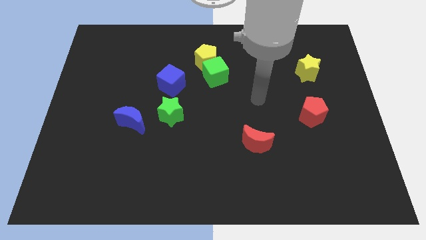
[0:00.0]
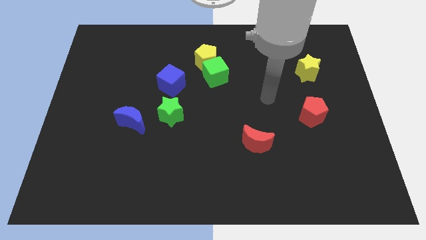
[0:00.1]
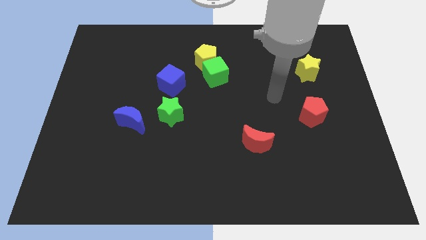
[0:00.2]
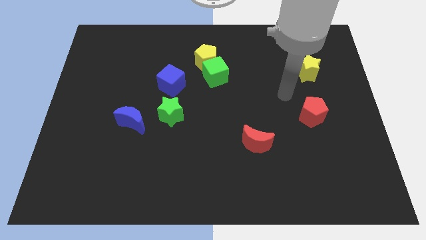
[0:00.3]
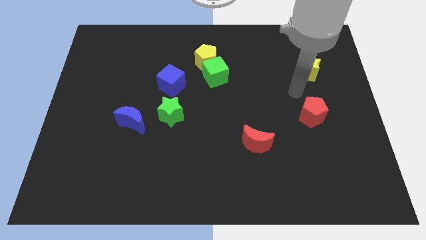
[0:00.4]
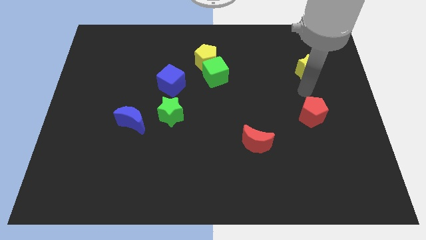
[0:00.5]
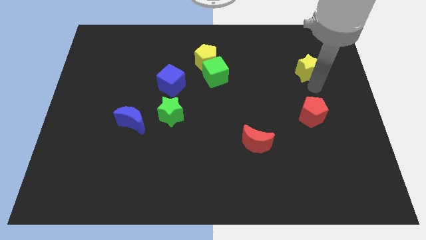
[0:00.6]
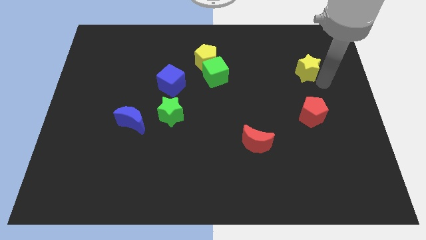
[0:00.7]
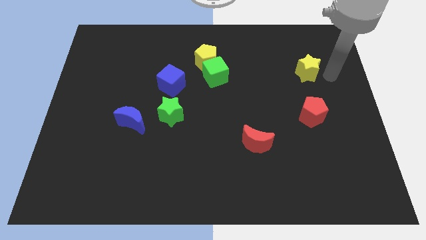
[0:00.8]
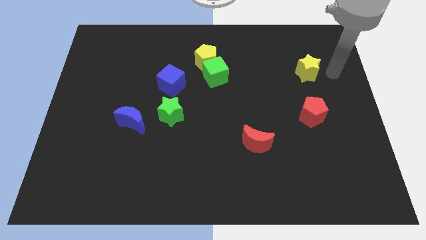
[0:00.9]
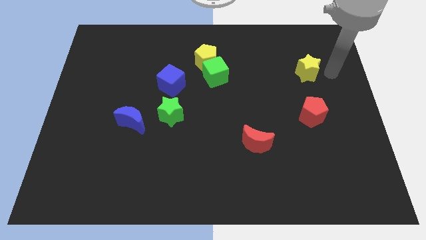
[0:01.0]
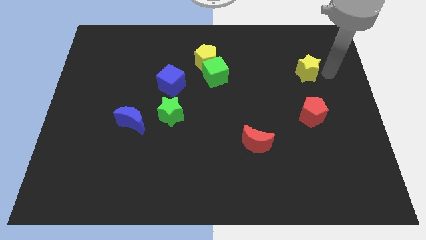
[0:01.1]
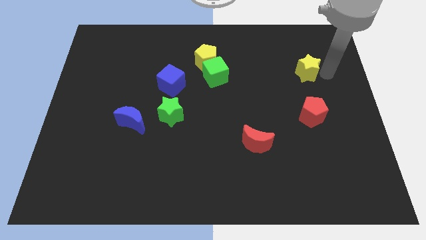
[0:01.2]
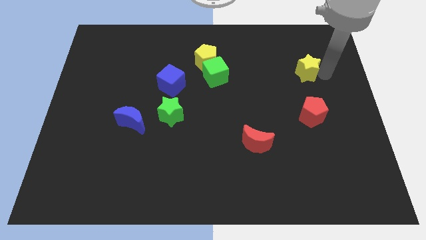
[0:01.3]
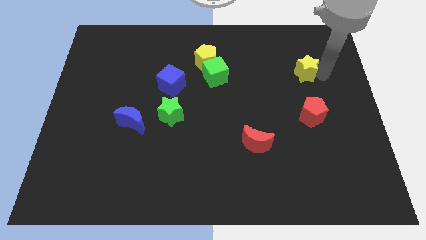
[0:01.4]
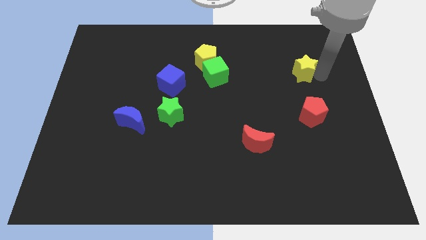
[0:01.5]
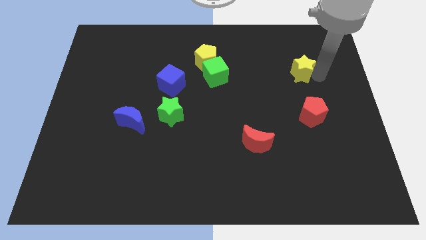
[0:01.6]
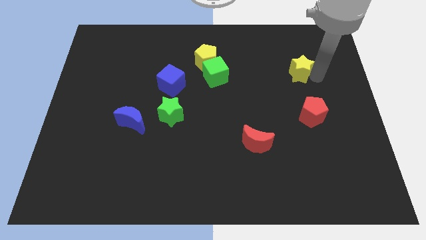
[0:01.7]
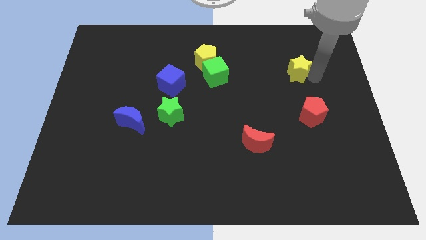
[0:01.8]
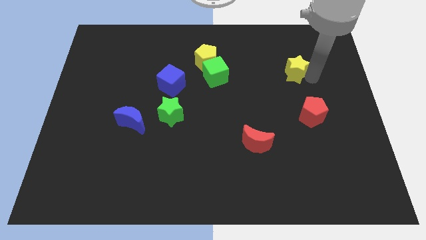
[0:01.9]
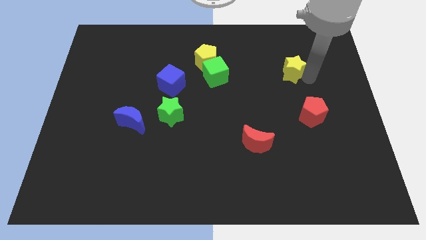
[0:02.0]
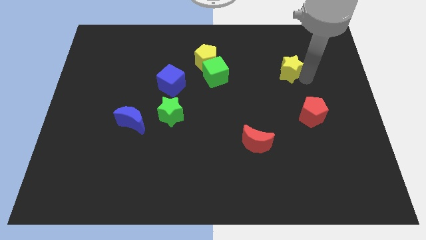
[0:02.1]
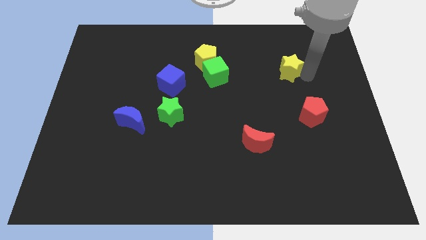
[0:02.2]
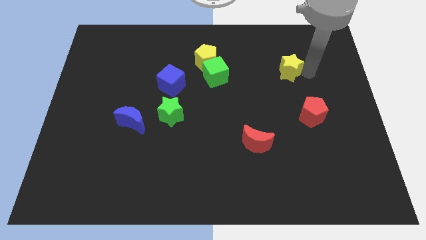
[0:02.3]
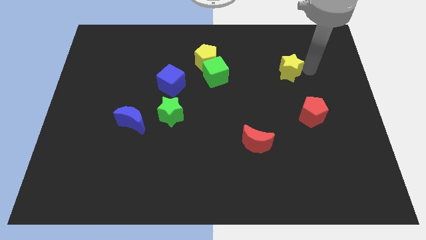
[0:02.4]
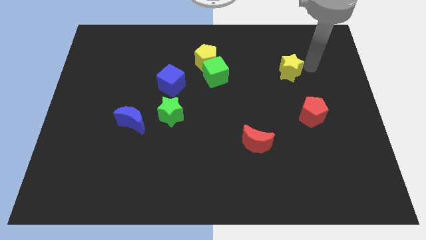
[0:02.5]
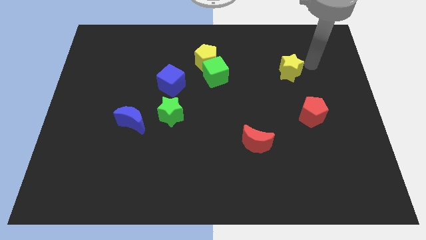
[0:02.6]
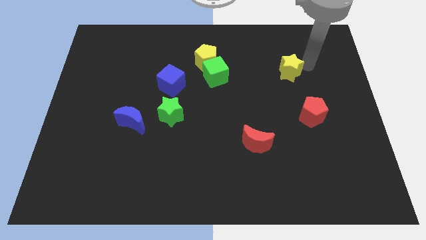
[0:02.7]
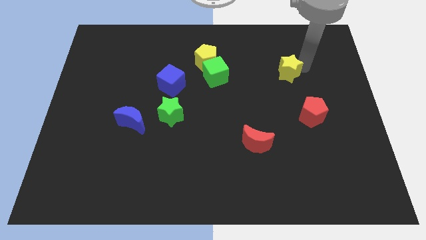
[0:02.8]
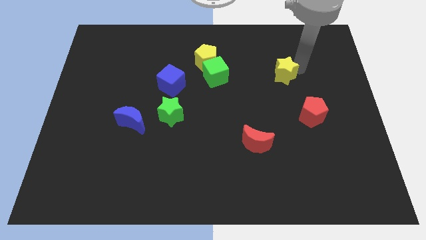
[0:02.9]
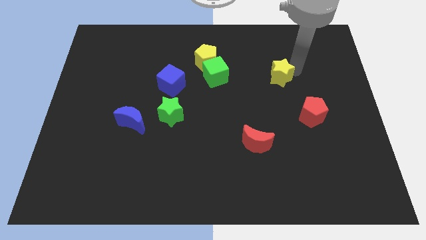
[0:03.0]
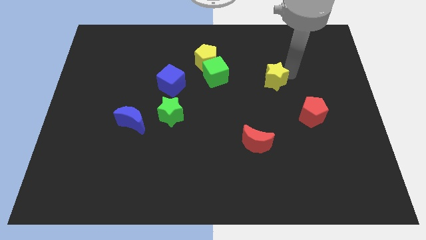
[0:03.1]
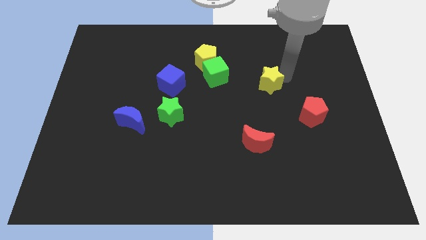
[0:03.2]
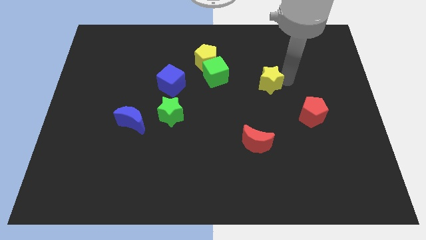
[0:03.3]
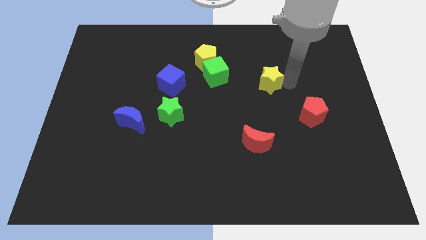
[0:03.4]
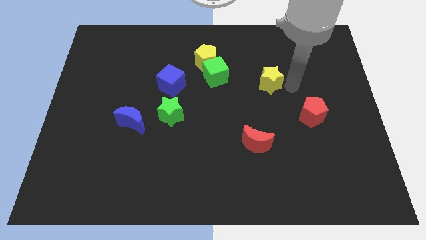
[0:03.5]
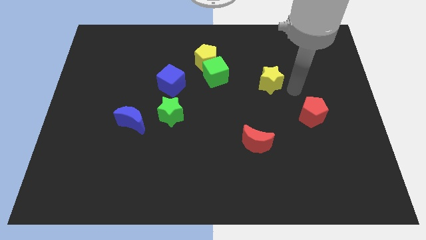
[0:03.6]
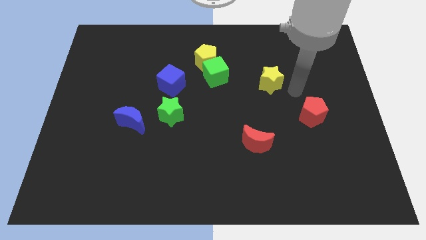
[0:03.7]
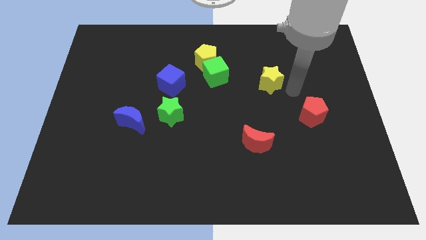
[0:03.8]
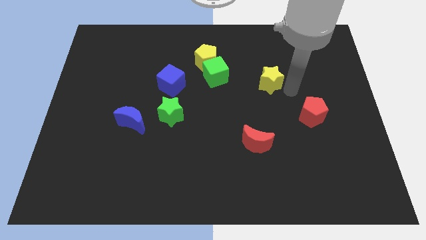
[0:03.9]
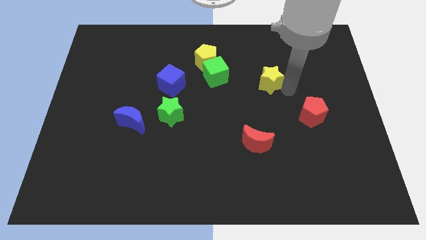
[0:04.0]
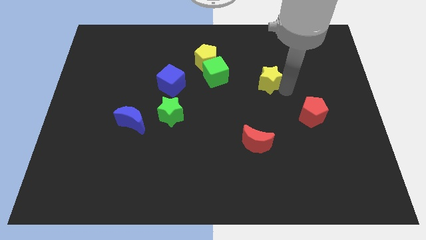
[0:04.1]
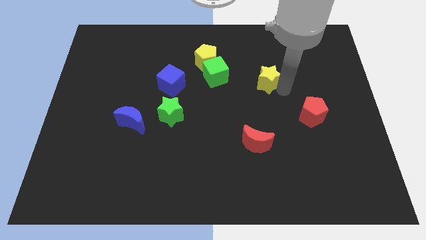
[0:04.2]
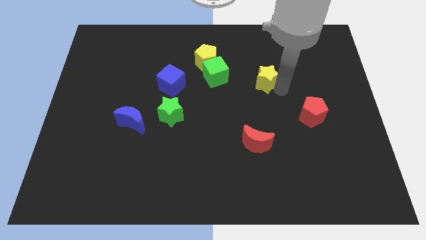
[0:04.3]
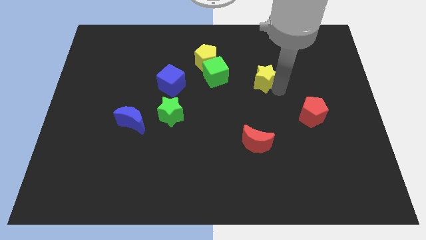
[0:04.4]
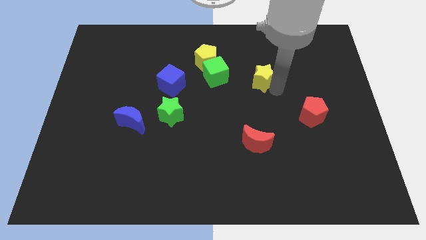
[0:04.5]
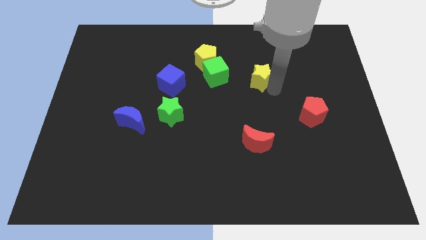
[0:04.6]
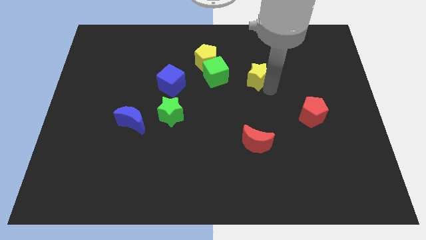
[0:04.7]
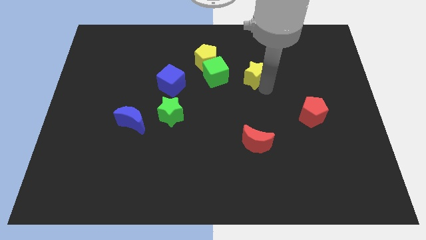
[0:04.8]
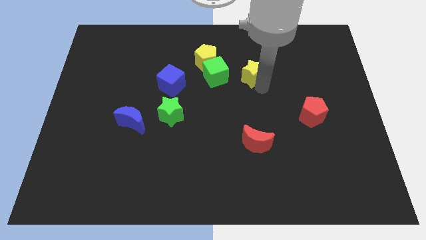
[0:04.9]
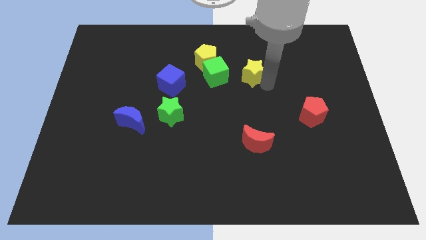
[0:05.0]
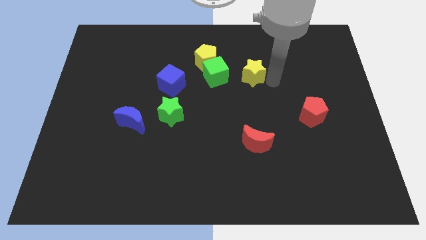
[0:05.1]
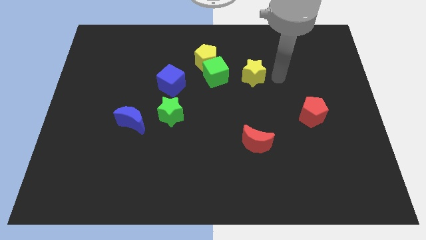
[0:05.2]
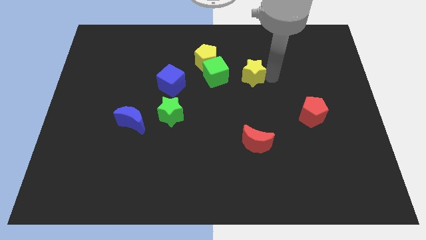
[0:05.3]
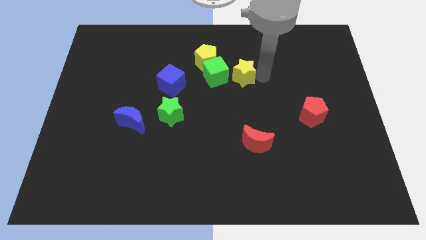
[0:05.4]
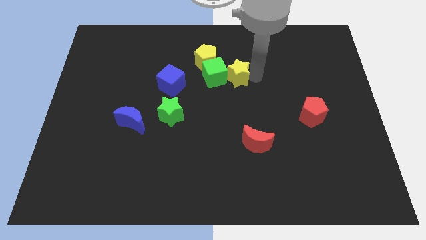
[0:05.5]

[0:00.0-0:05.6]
move the yellow star next to the green cube

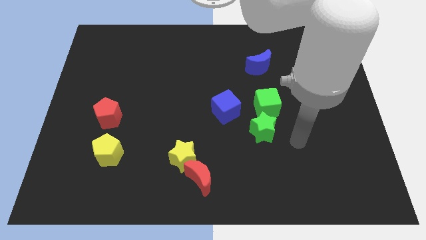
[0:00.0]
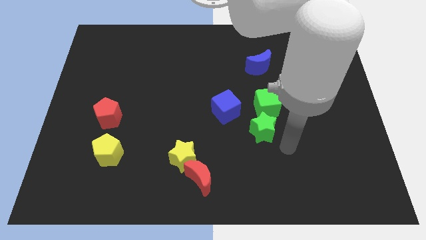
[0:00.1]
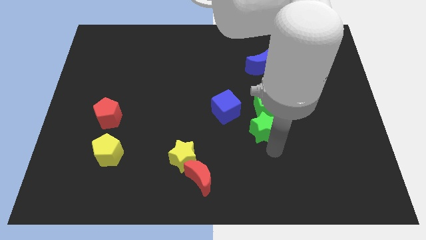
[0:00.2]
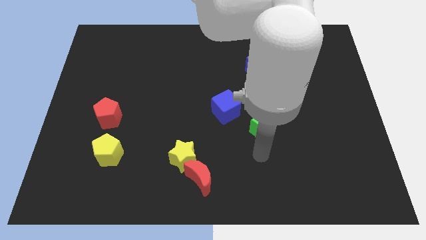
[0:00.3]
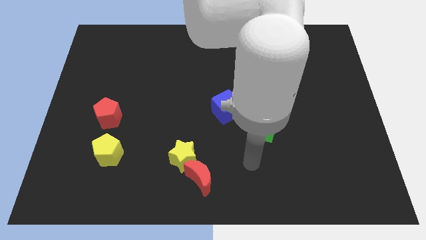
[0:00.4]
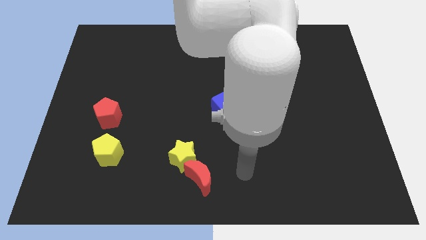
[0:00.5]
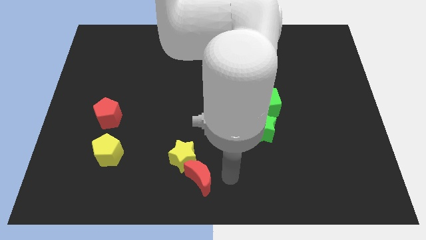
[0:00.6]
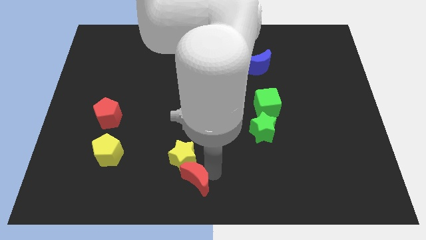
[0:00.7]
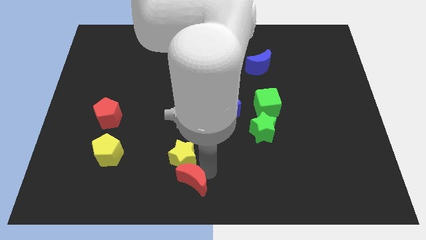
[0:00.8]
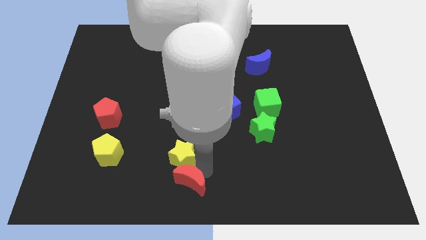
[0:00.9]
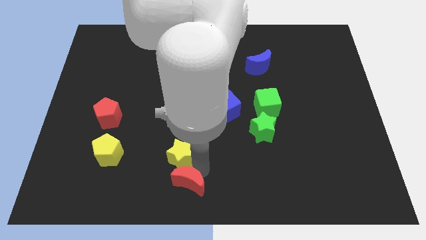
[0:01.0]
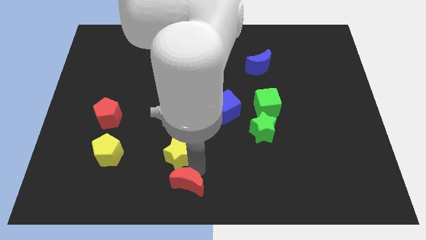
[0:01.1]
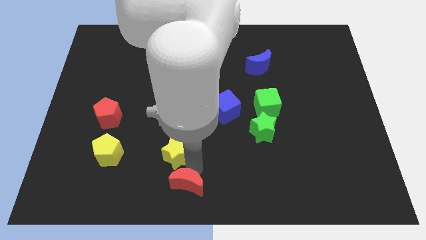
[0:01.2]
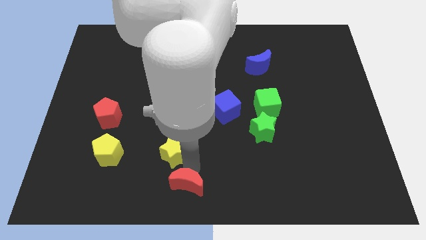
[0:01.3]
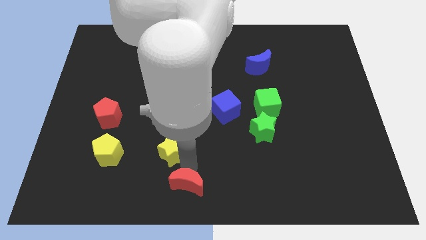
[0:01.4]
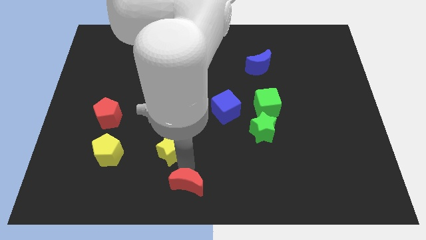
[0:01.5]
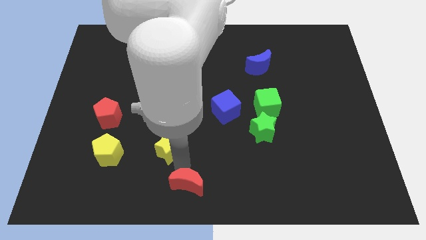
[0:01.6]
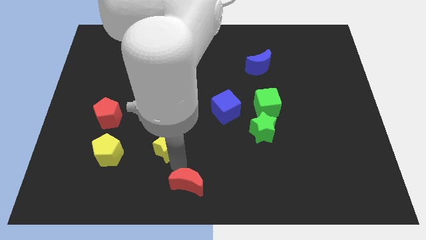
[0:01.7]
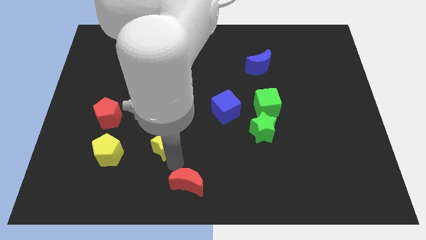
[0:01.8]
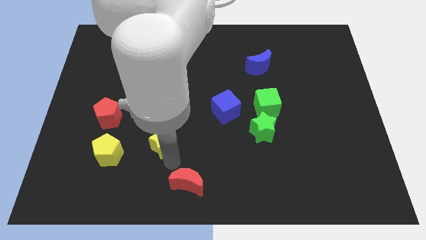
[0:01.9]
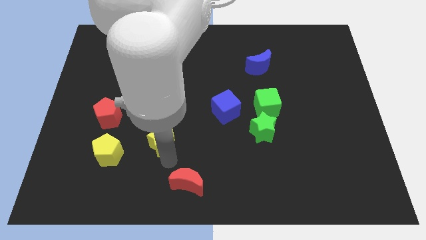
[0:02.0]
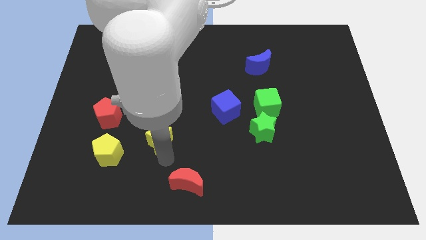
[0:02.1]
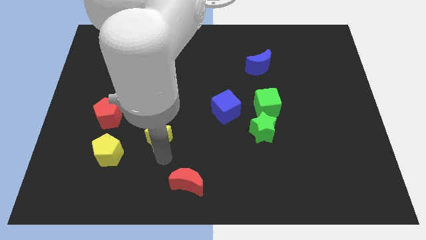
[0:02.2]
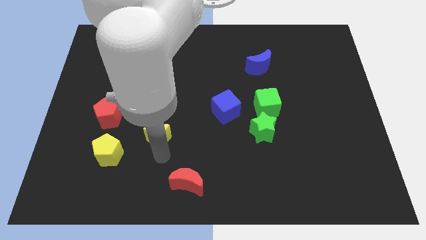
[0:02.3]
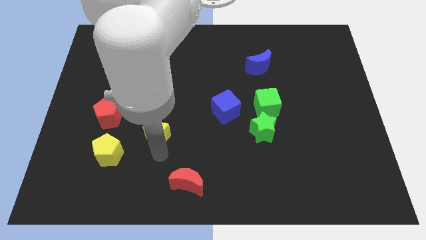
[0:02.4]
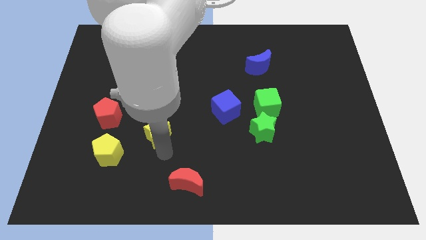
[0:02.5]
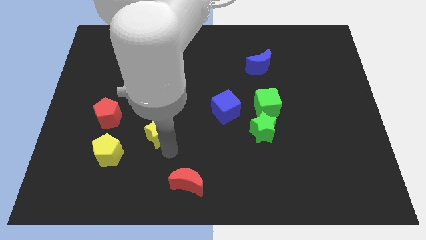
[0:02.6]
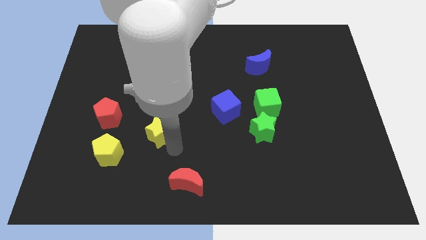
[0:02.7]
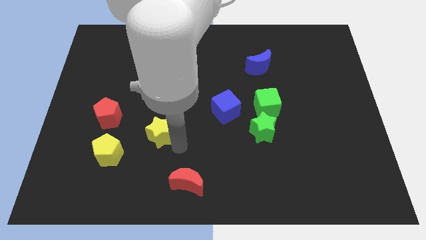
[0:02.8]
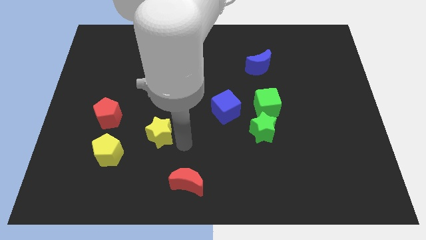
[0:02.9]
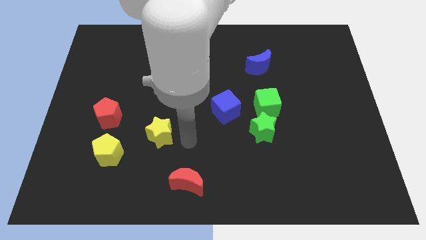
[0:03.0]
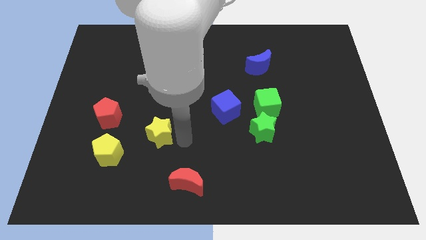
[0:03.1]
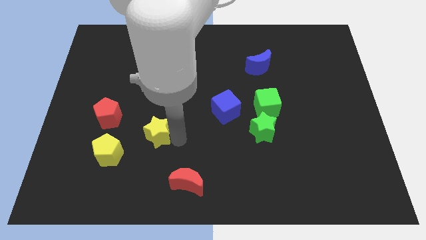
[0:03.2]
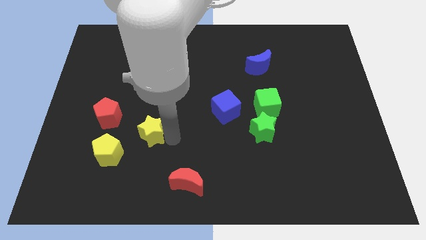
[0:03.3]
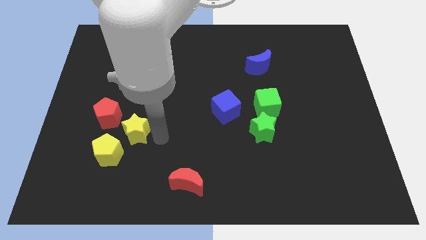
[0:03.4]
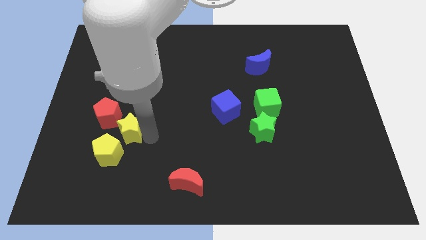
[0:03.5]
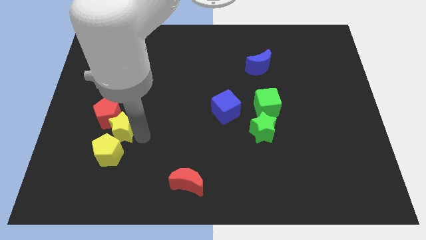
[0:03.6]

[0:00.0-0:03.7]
push the yellow star towards the red pentagon
